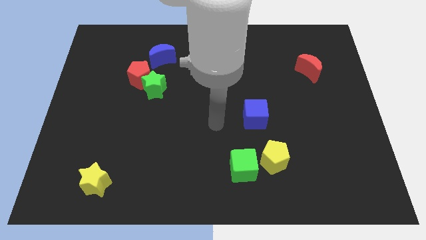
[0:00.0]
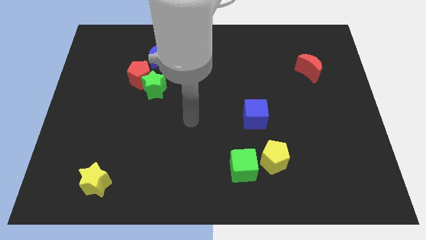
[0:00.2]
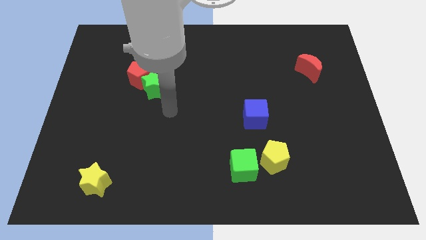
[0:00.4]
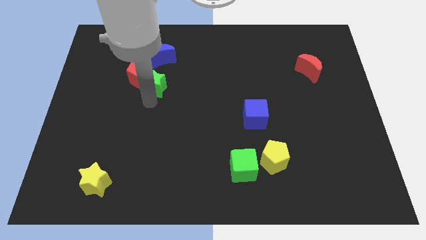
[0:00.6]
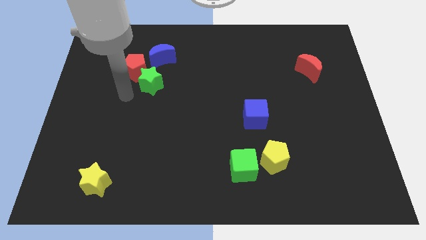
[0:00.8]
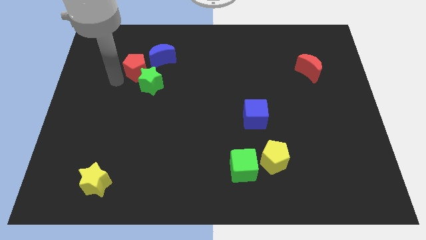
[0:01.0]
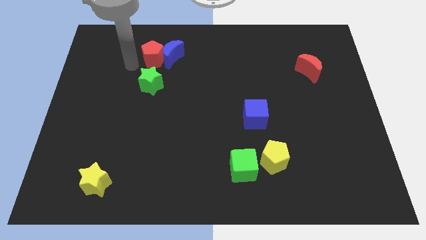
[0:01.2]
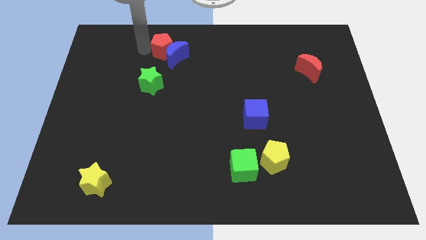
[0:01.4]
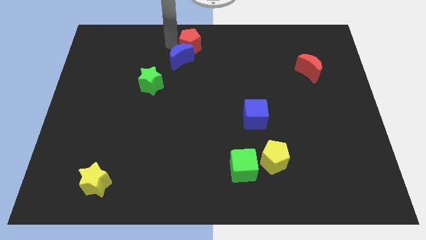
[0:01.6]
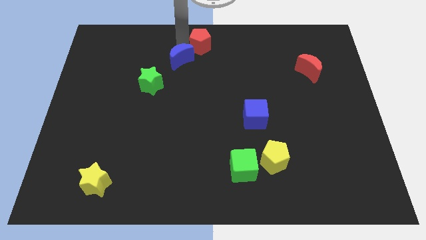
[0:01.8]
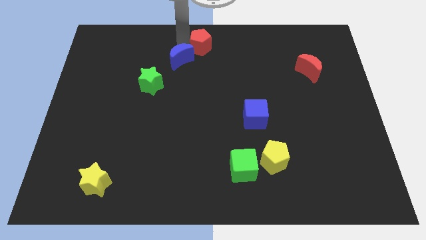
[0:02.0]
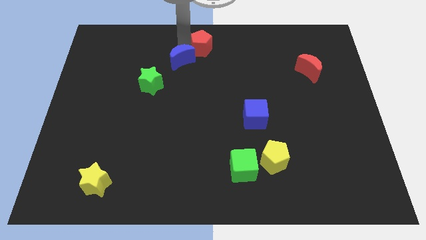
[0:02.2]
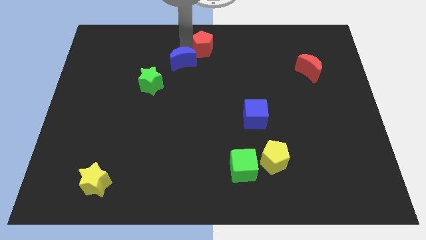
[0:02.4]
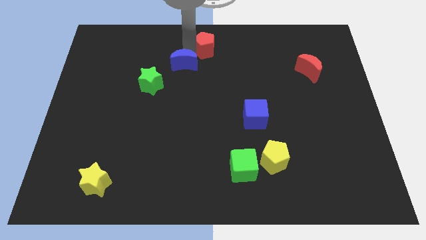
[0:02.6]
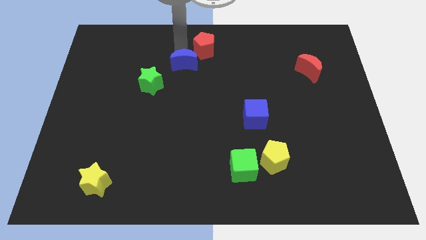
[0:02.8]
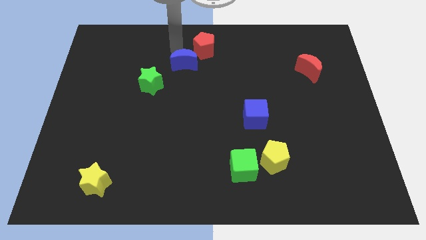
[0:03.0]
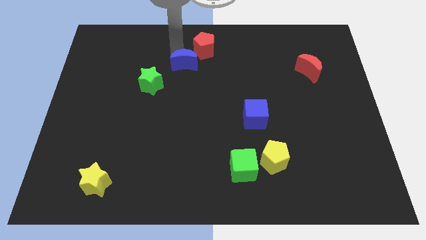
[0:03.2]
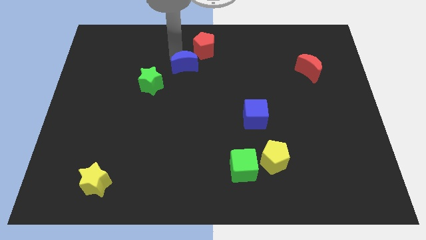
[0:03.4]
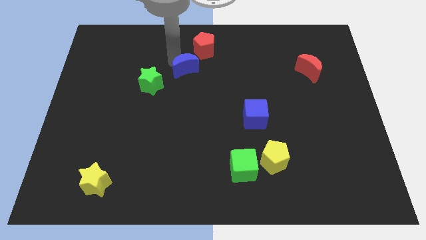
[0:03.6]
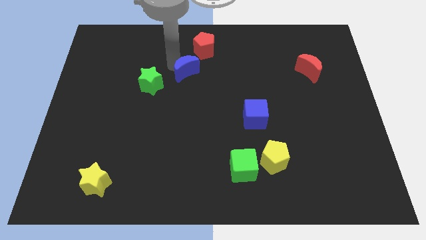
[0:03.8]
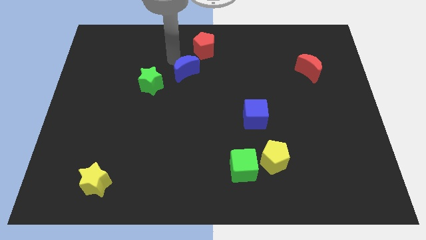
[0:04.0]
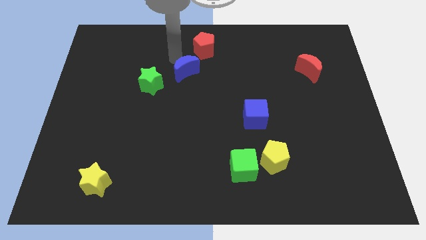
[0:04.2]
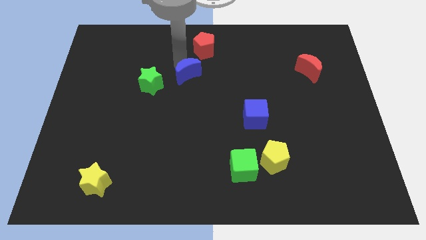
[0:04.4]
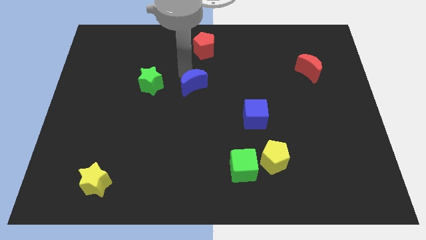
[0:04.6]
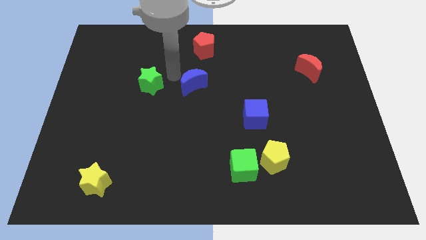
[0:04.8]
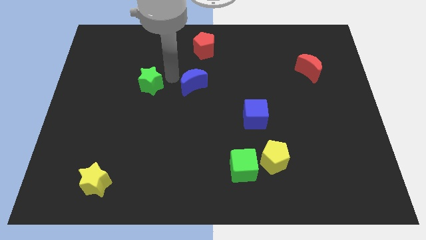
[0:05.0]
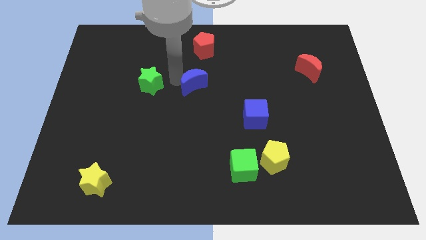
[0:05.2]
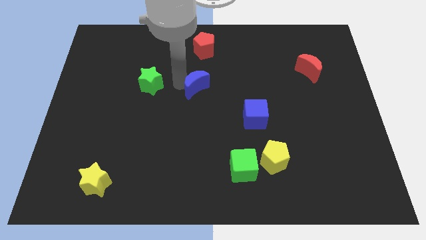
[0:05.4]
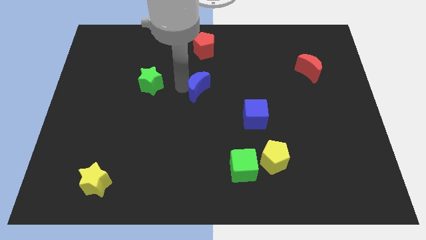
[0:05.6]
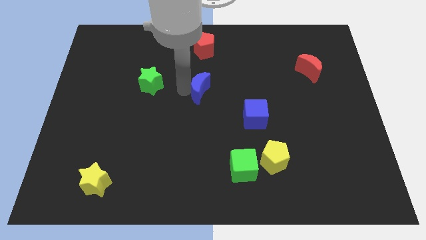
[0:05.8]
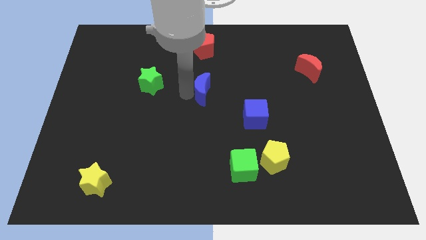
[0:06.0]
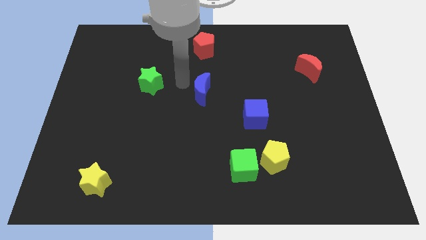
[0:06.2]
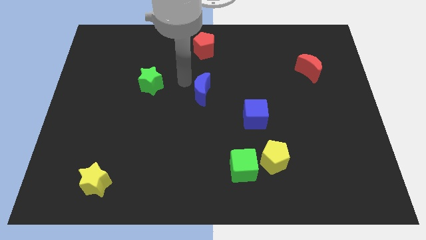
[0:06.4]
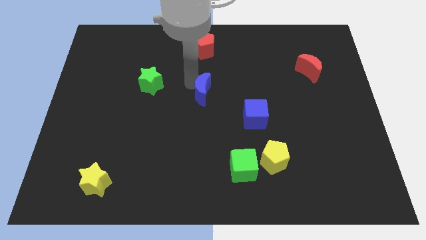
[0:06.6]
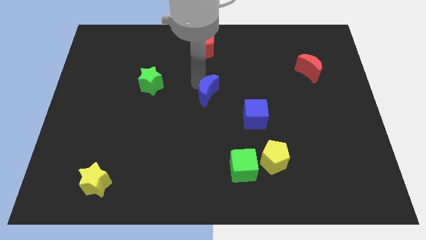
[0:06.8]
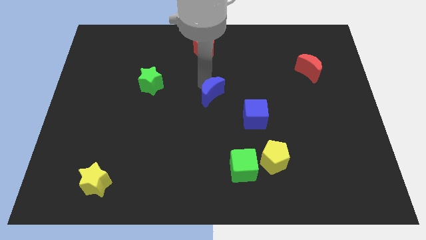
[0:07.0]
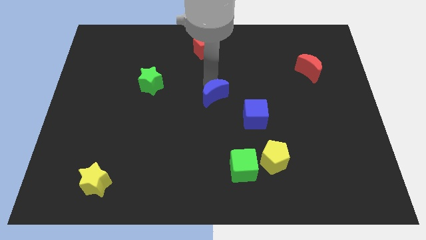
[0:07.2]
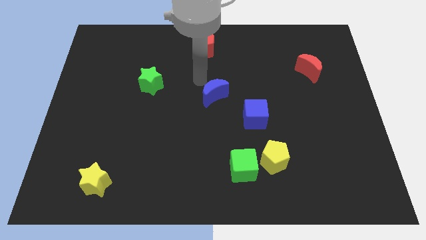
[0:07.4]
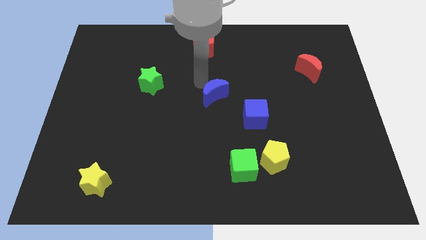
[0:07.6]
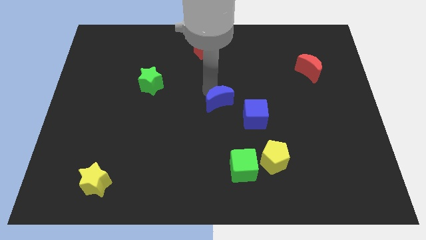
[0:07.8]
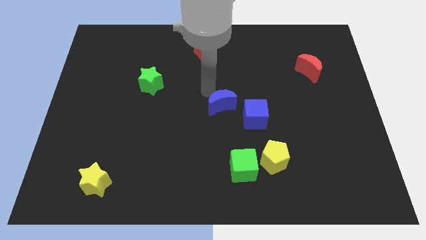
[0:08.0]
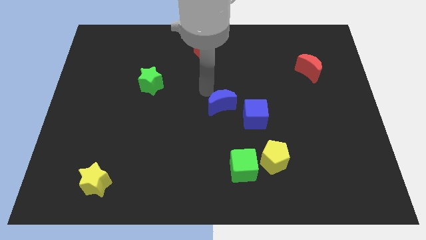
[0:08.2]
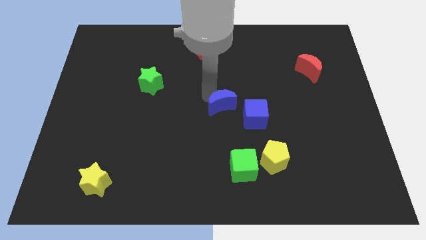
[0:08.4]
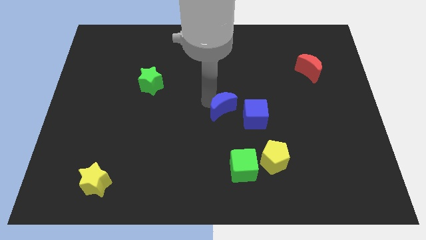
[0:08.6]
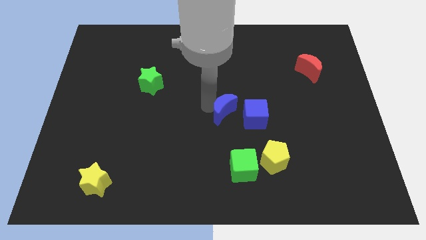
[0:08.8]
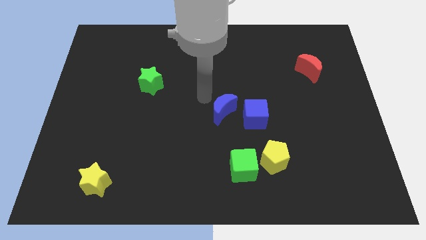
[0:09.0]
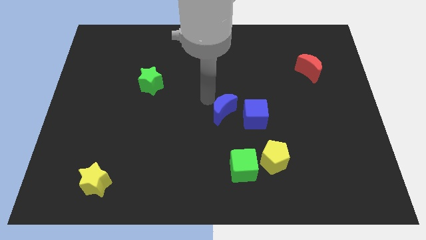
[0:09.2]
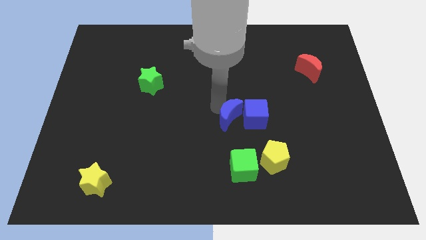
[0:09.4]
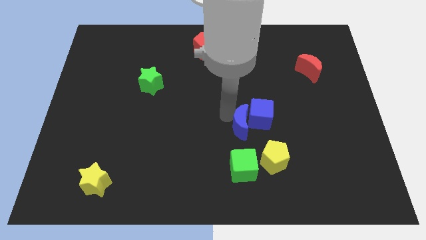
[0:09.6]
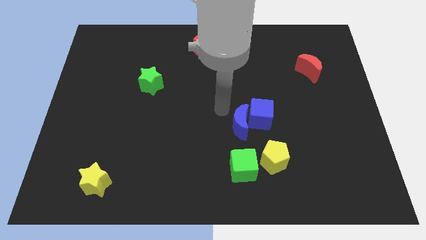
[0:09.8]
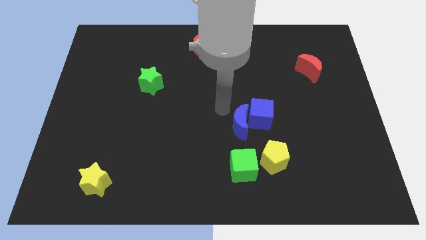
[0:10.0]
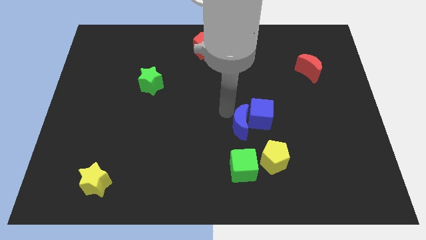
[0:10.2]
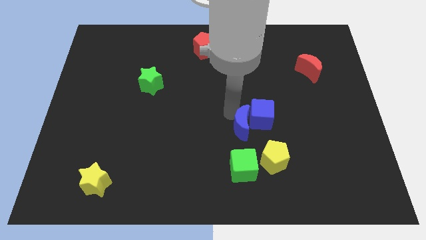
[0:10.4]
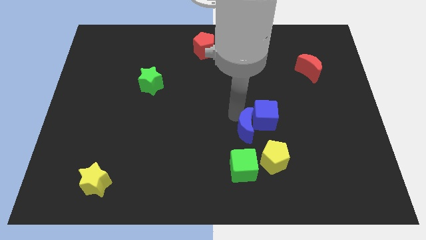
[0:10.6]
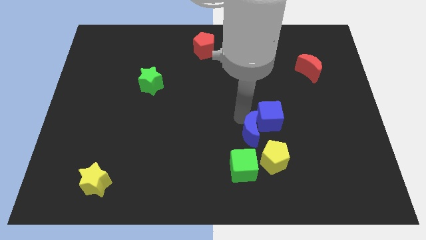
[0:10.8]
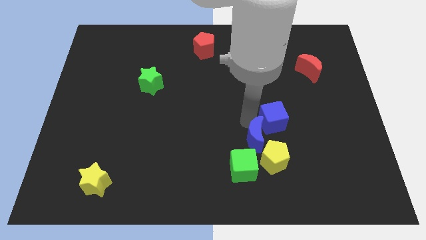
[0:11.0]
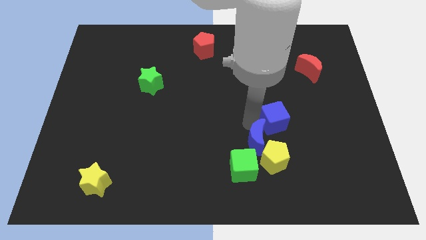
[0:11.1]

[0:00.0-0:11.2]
move the blue moon towards the yellow pentagon

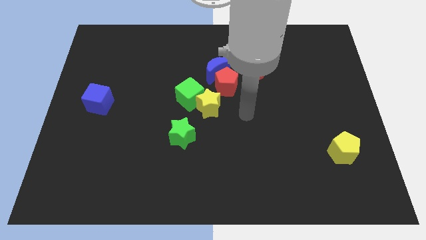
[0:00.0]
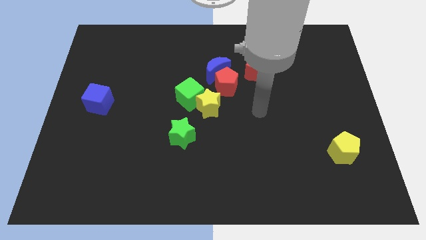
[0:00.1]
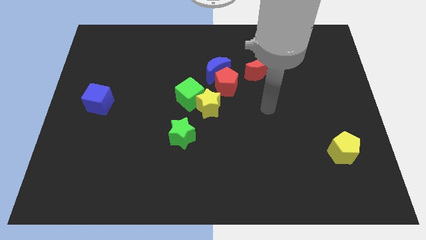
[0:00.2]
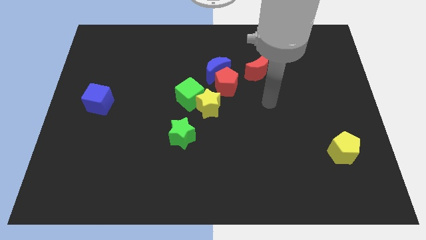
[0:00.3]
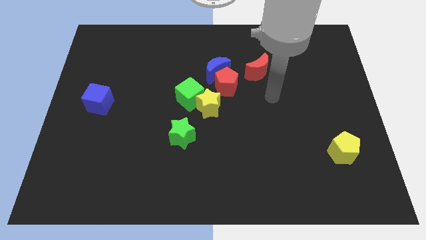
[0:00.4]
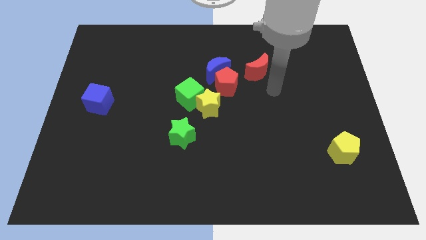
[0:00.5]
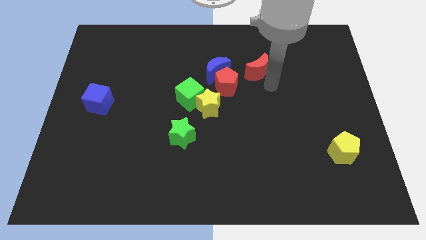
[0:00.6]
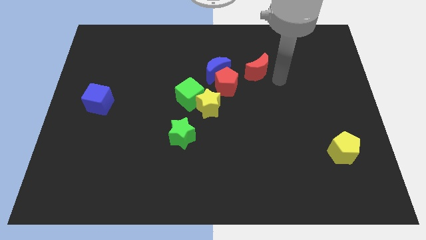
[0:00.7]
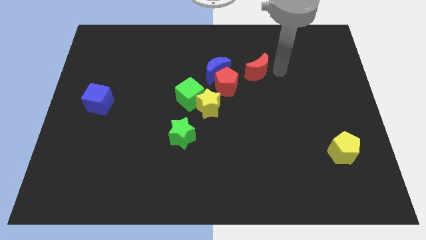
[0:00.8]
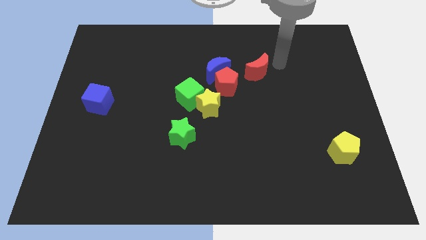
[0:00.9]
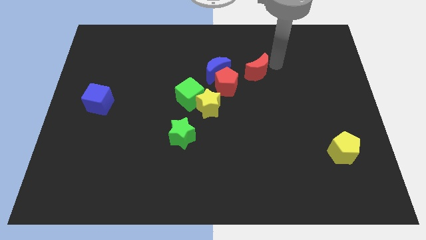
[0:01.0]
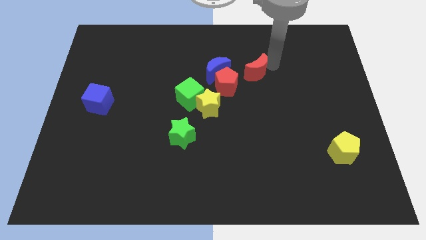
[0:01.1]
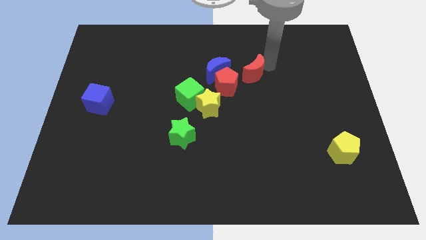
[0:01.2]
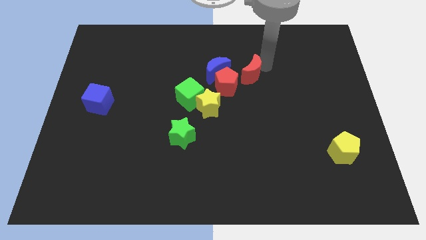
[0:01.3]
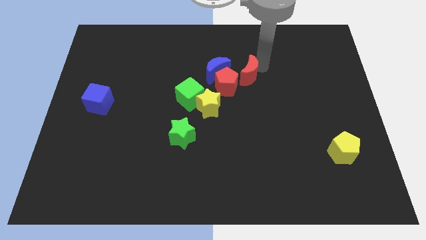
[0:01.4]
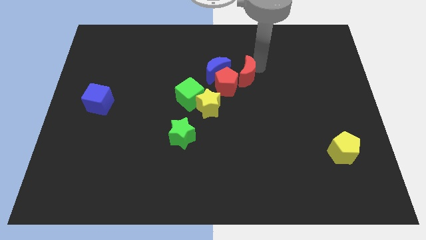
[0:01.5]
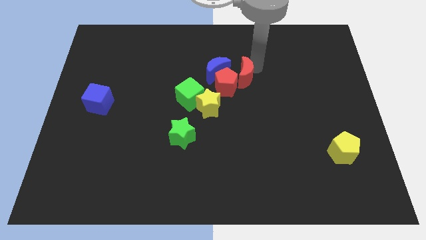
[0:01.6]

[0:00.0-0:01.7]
push the red moon to the red pentagon
